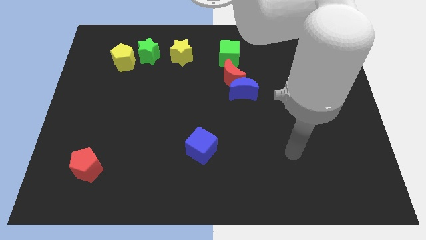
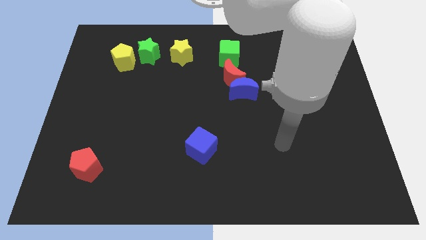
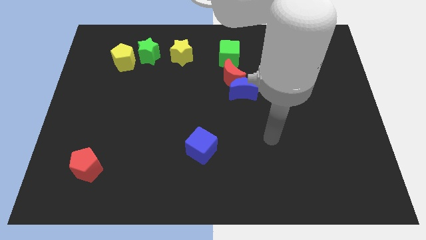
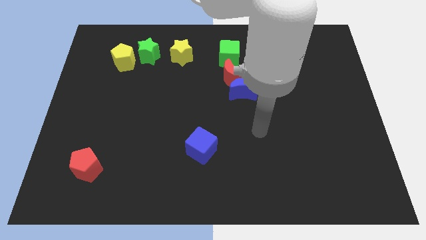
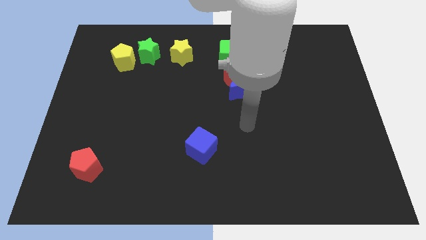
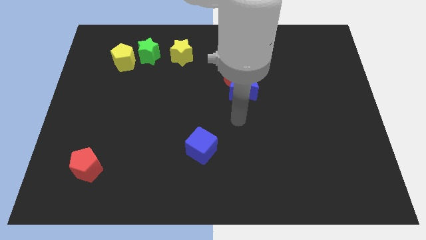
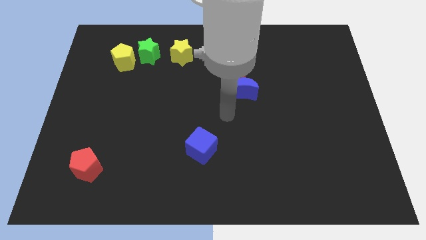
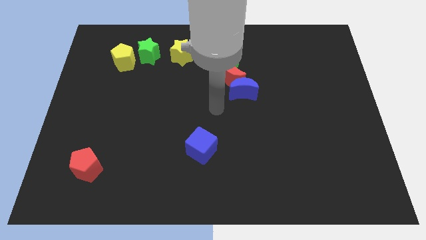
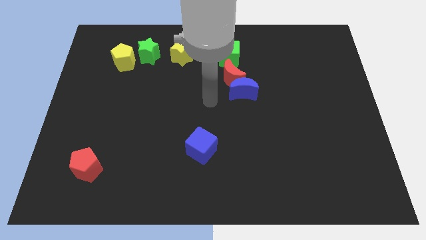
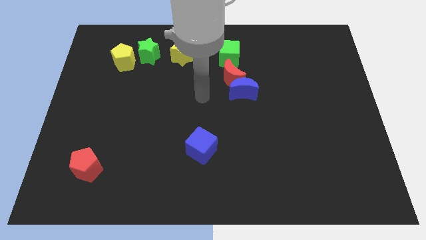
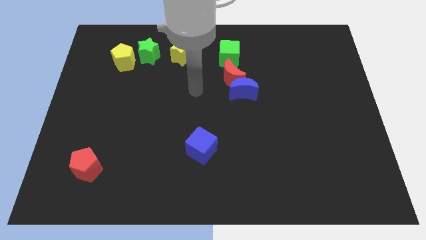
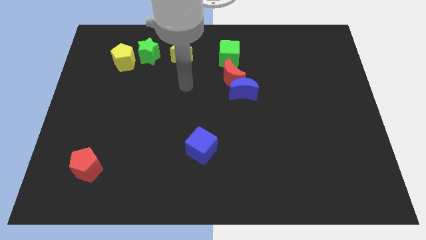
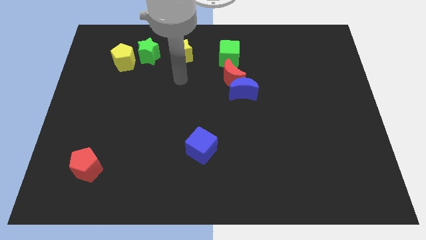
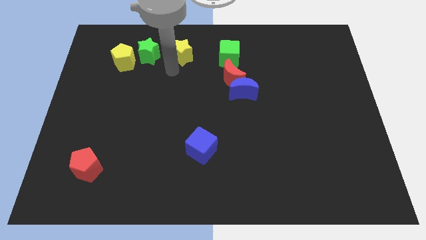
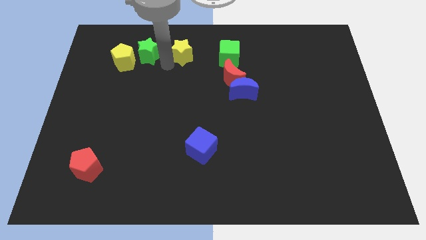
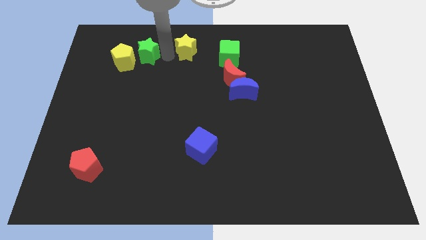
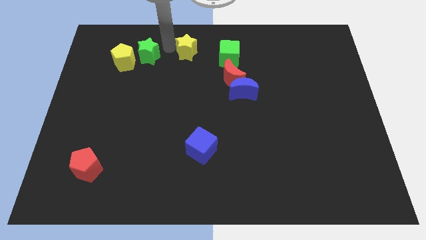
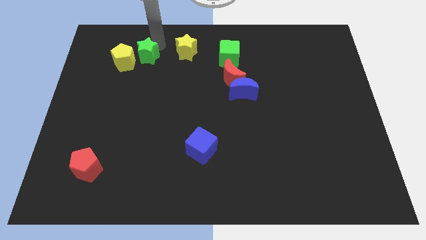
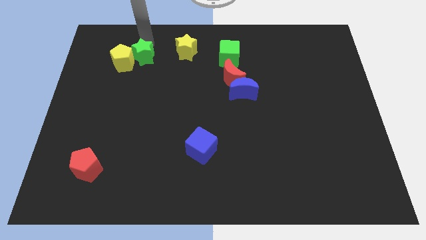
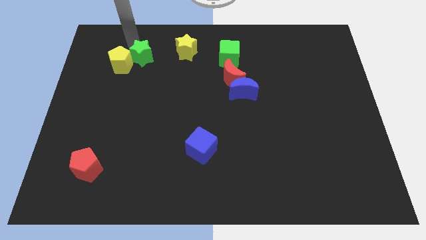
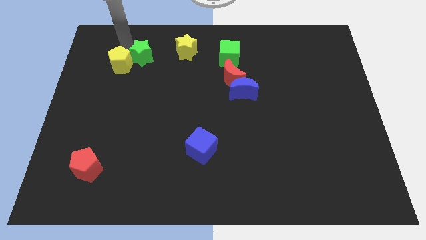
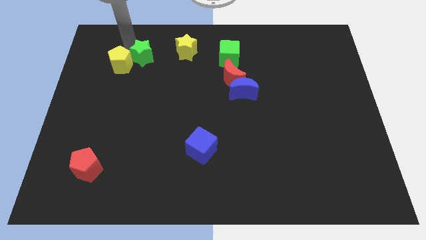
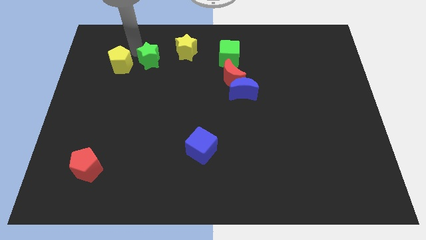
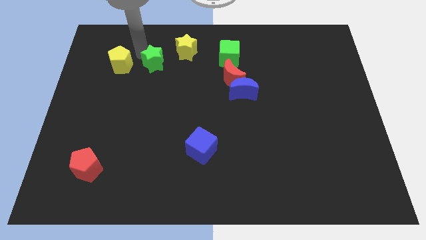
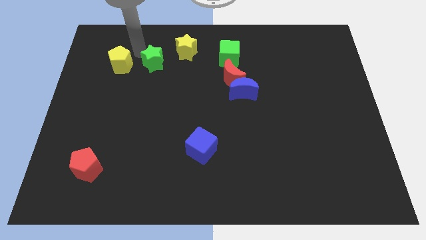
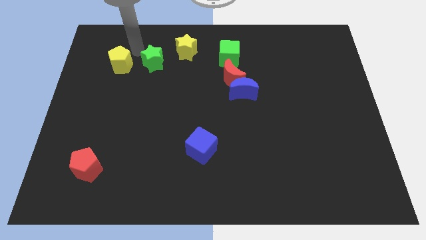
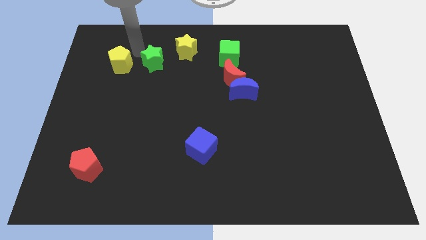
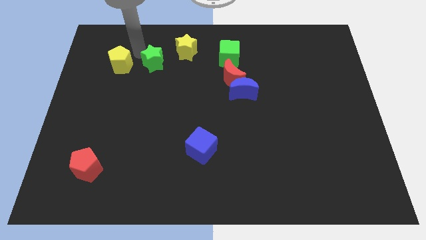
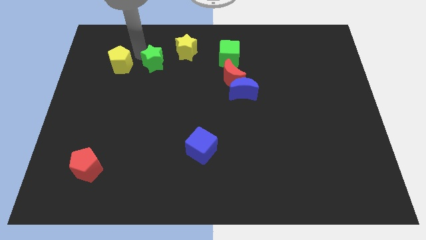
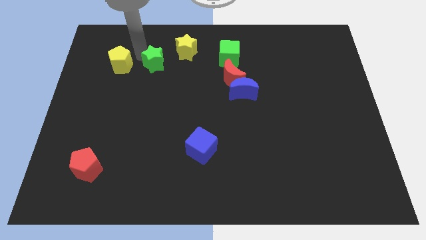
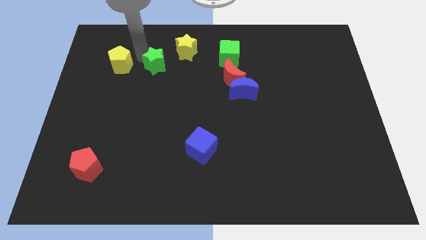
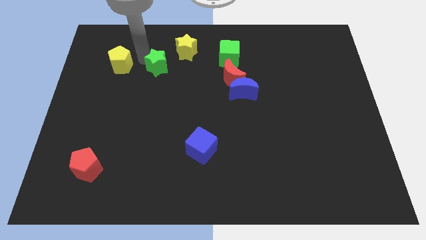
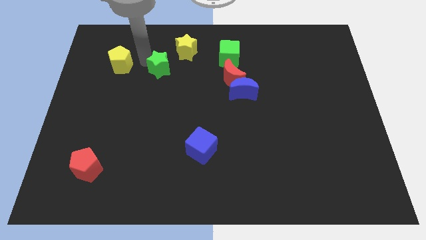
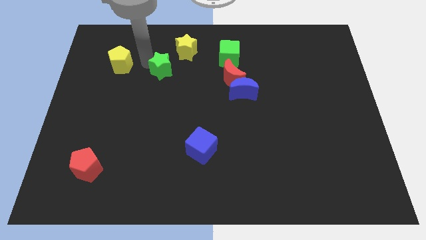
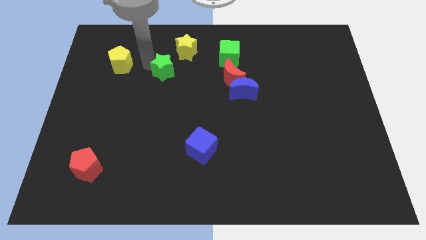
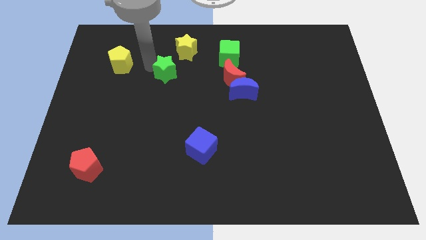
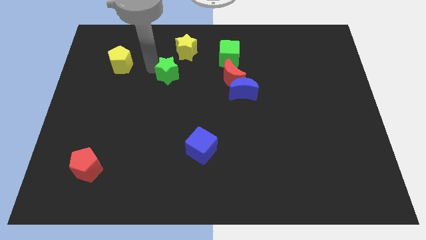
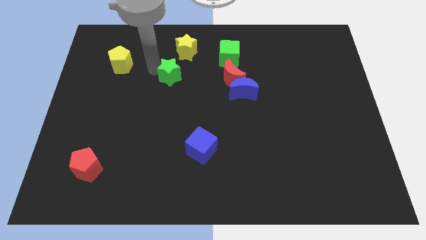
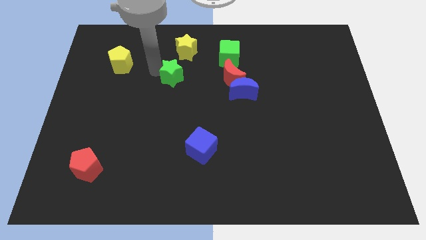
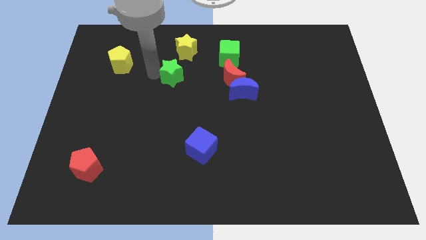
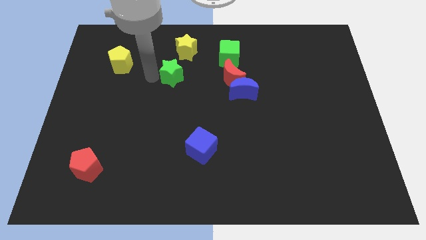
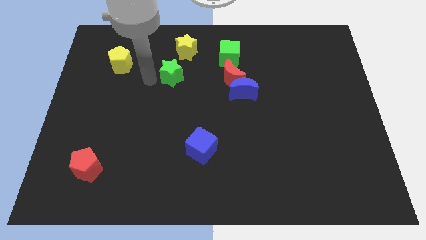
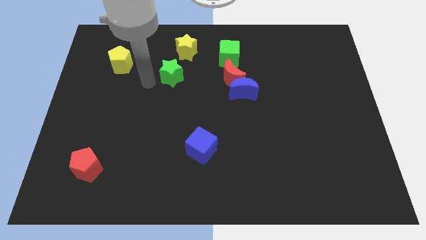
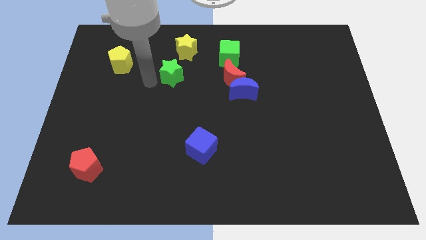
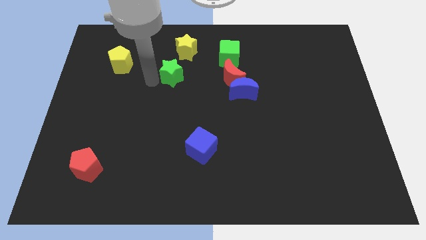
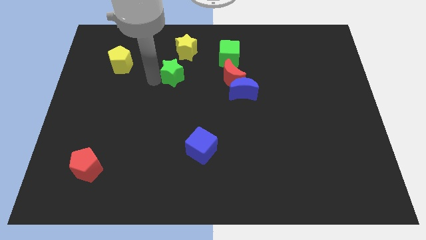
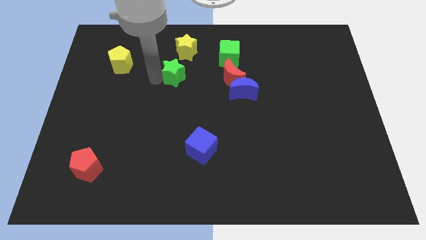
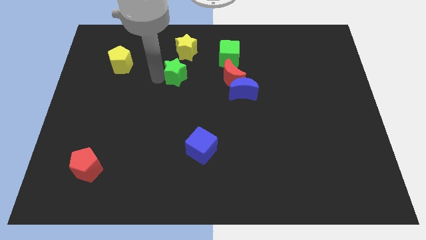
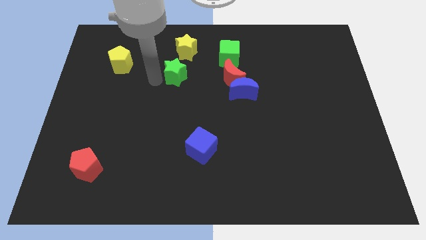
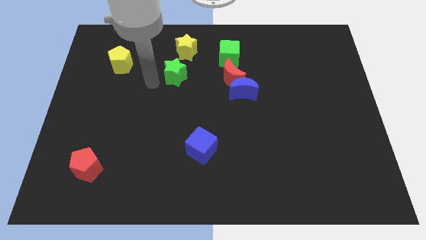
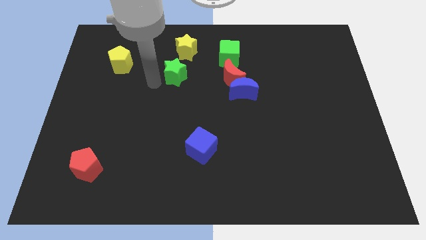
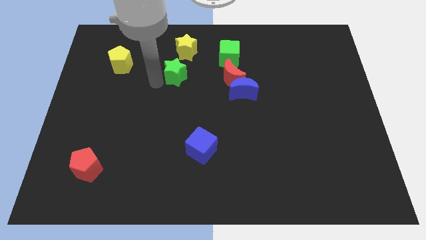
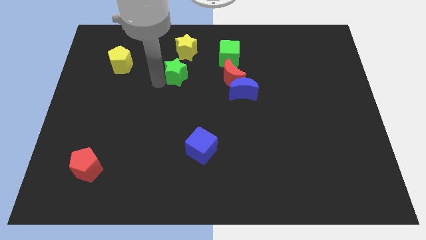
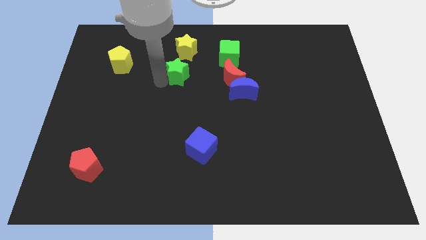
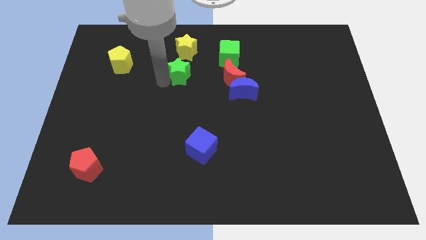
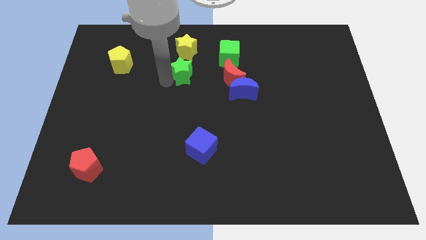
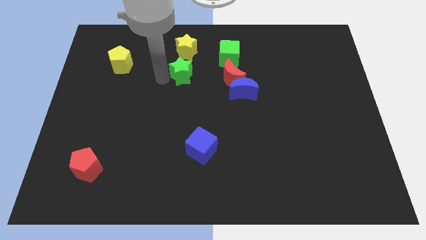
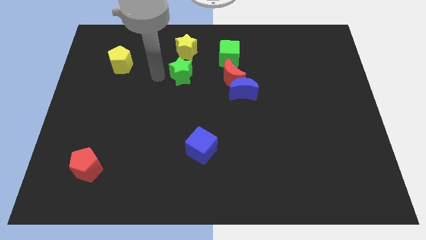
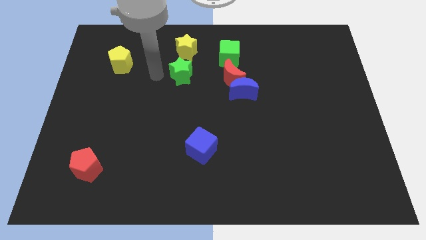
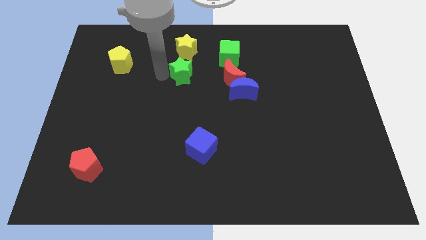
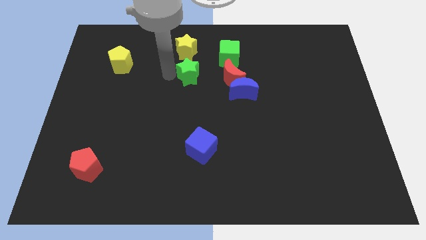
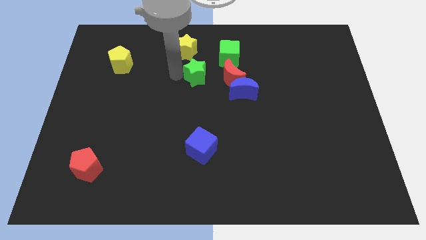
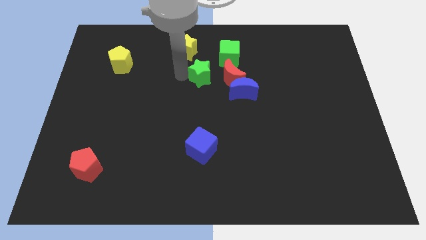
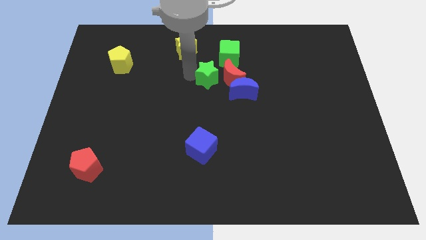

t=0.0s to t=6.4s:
slide the green star next to the red moon

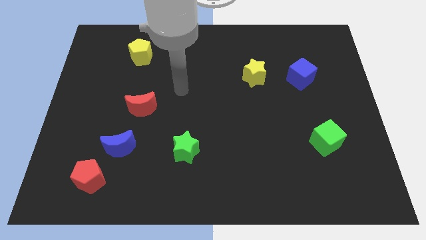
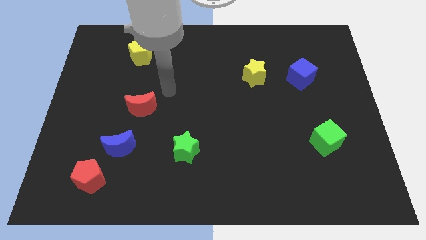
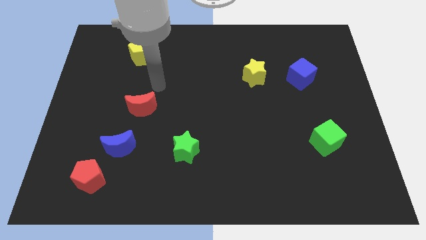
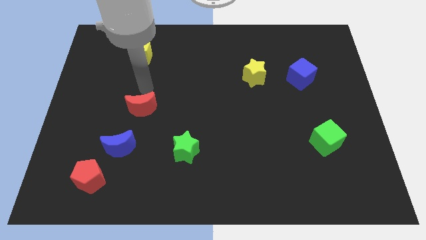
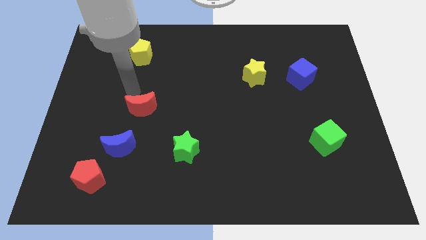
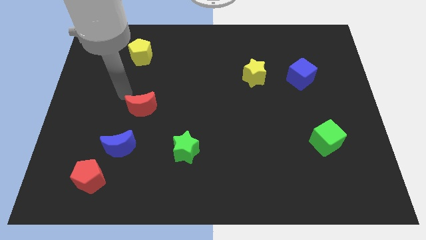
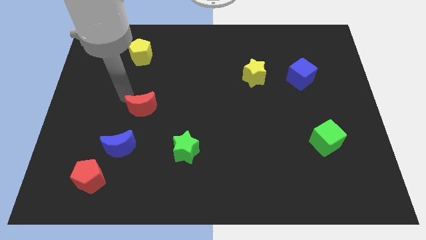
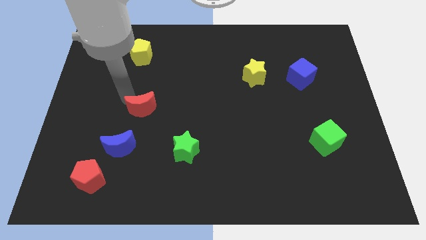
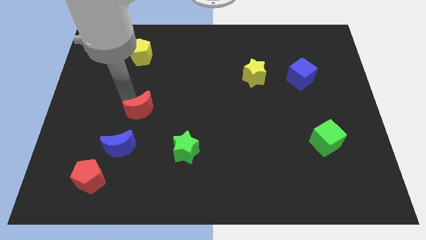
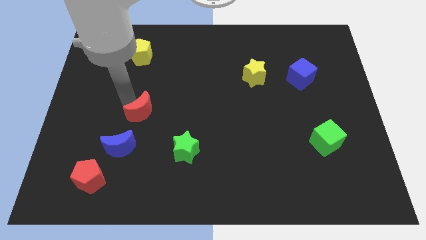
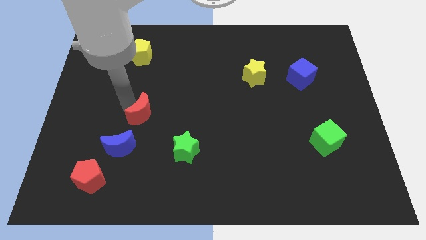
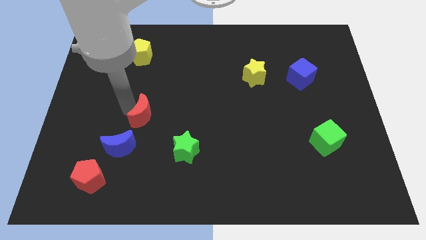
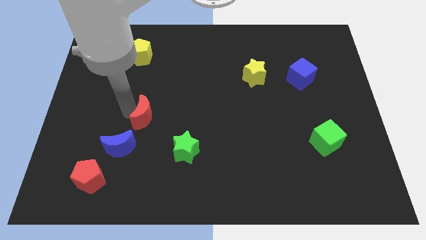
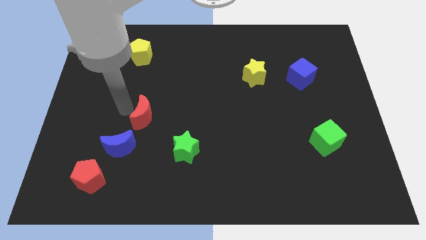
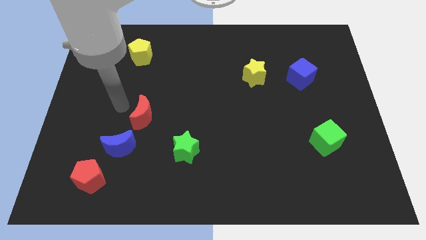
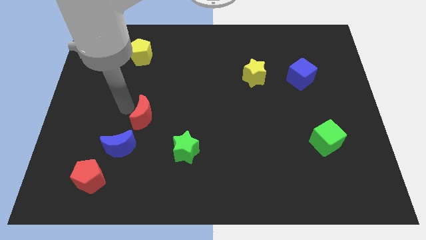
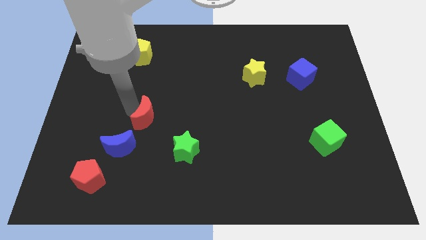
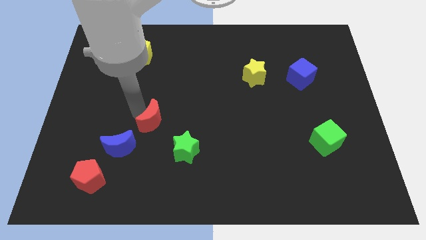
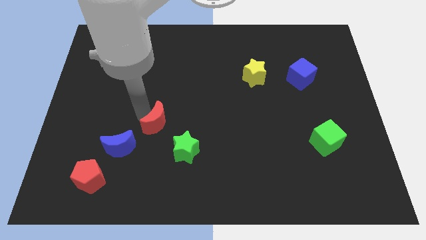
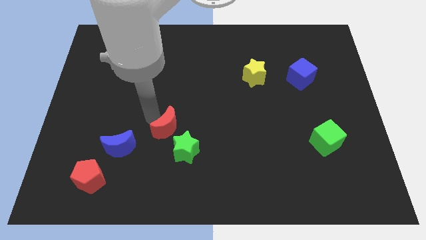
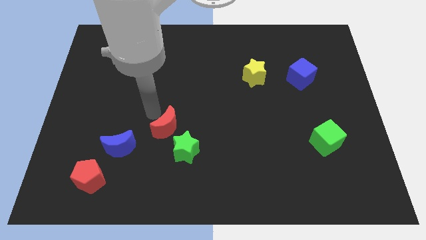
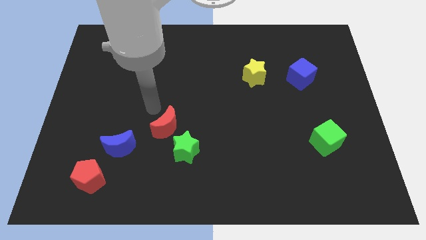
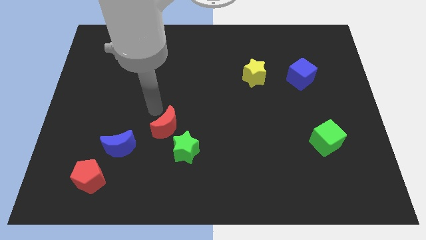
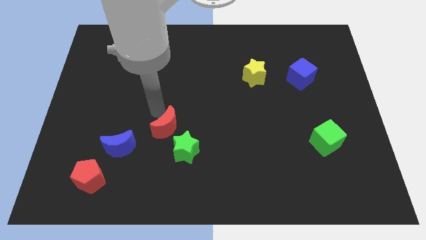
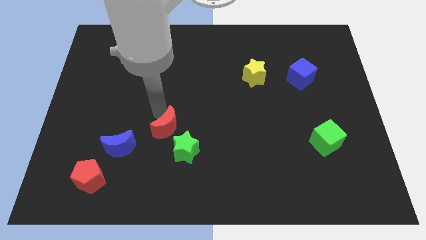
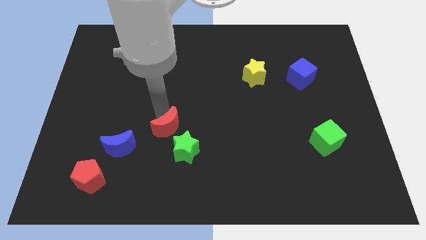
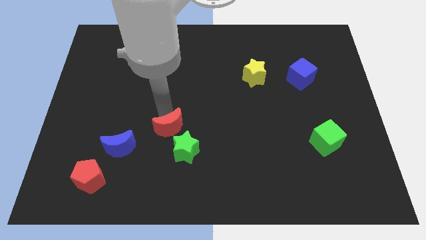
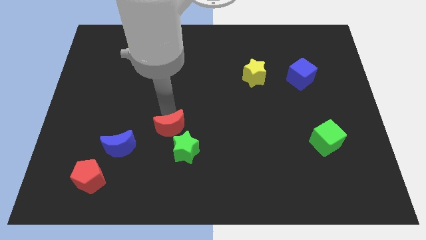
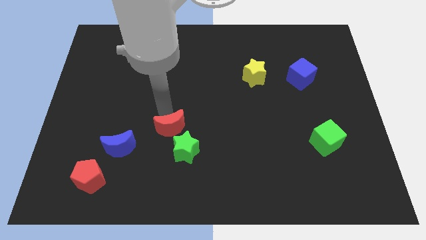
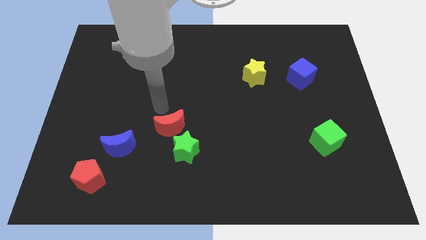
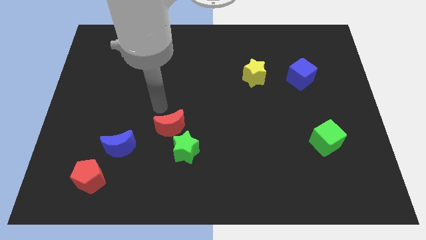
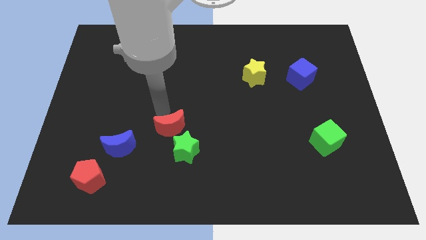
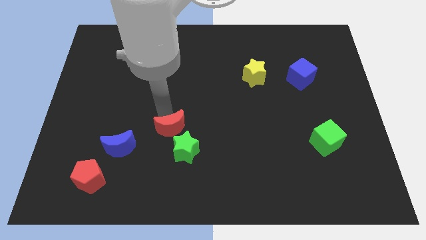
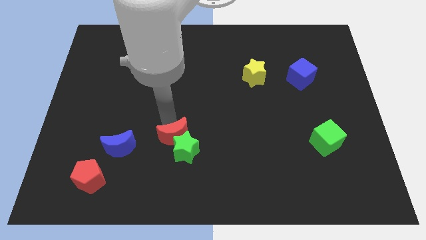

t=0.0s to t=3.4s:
put the red moon to the green star
